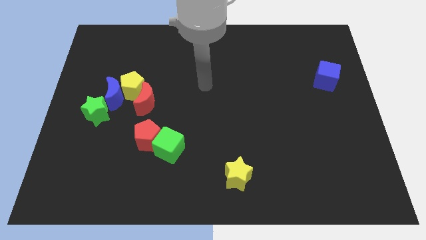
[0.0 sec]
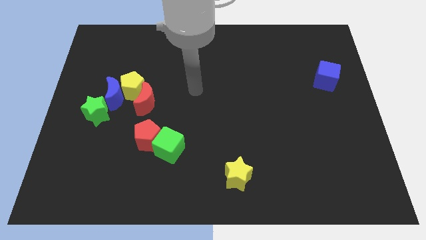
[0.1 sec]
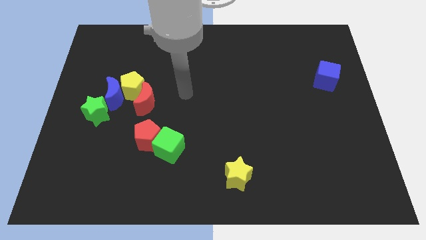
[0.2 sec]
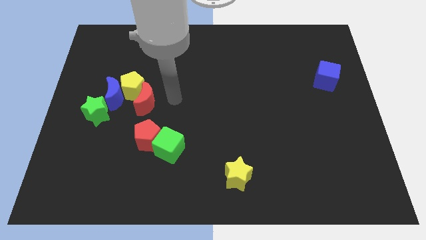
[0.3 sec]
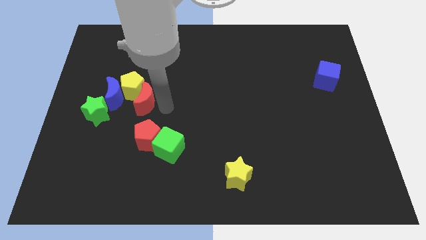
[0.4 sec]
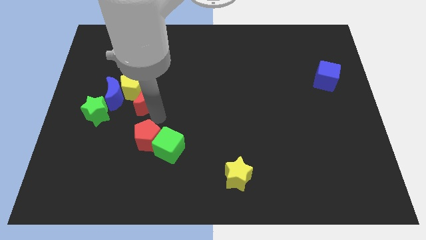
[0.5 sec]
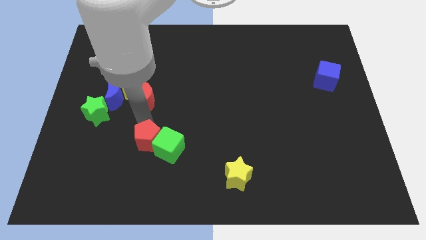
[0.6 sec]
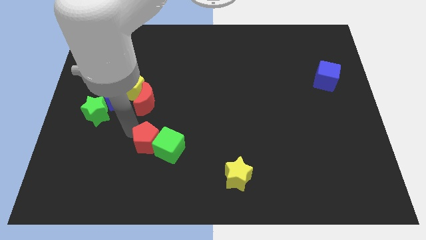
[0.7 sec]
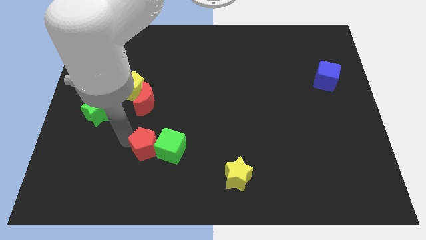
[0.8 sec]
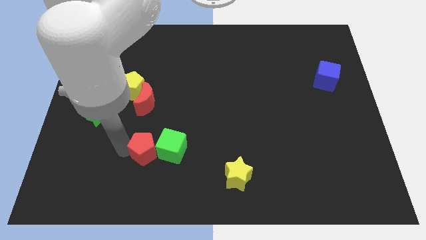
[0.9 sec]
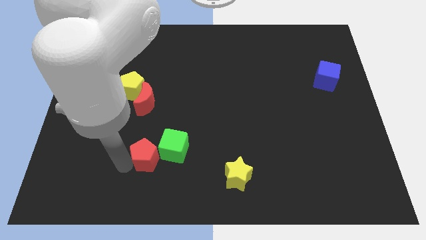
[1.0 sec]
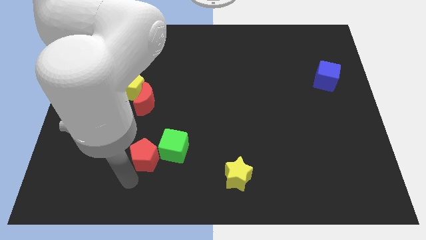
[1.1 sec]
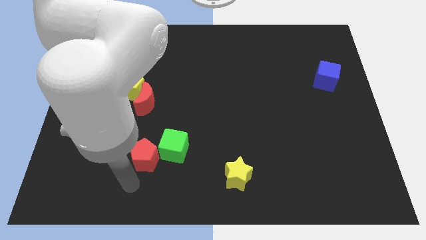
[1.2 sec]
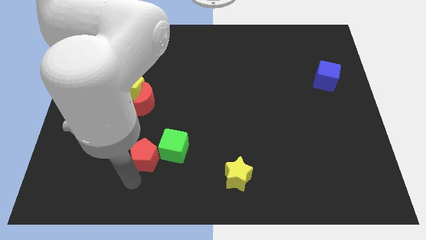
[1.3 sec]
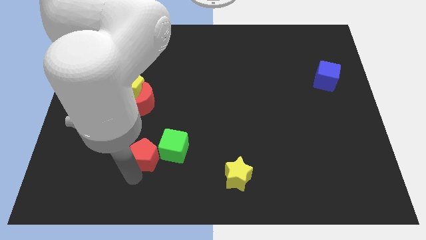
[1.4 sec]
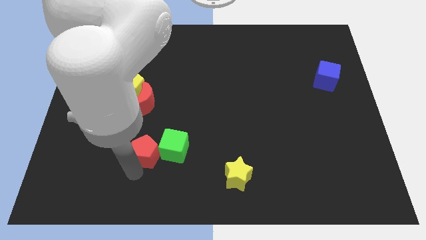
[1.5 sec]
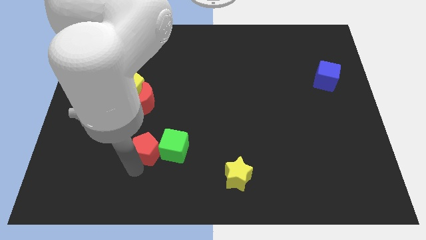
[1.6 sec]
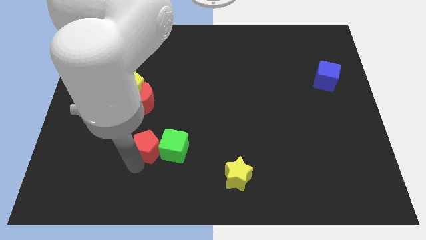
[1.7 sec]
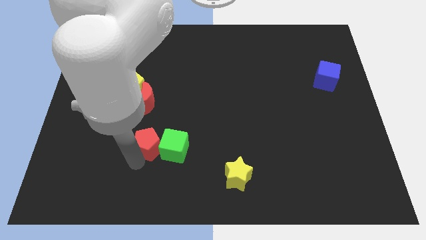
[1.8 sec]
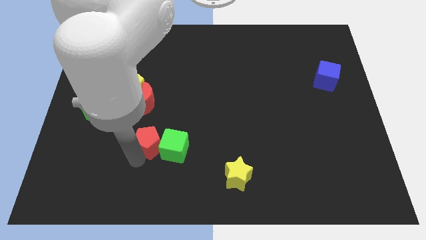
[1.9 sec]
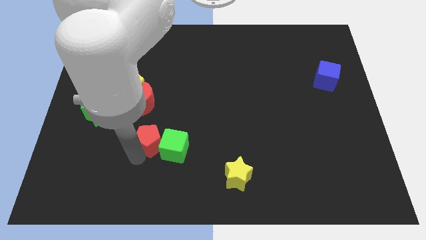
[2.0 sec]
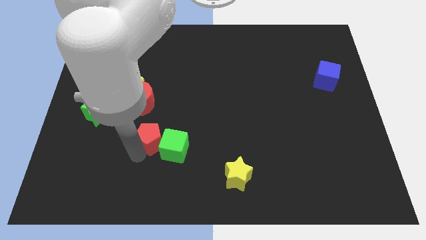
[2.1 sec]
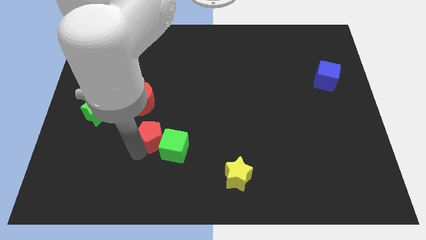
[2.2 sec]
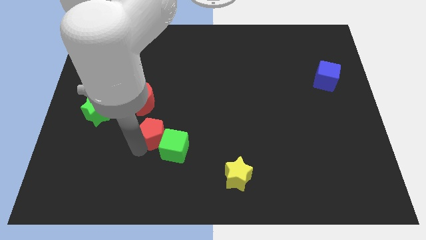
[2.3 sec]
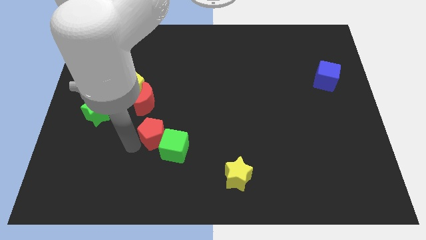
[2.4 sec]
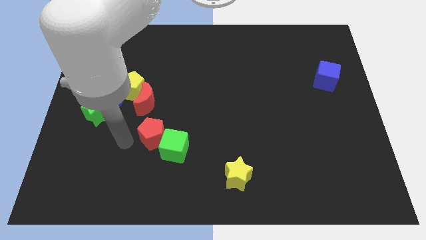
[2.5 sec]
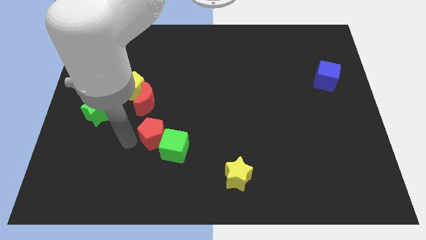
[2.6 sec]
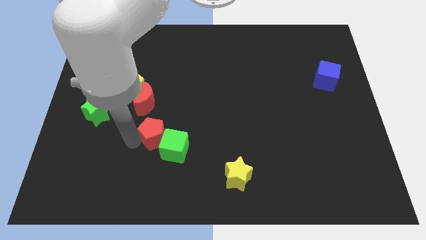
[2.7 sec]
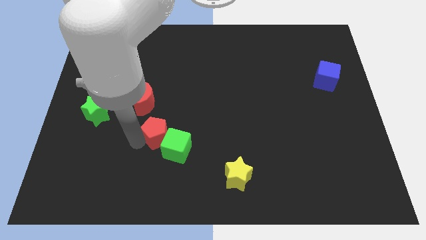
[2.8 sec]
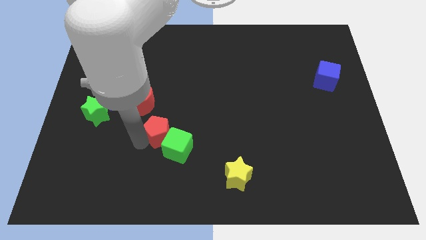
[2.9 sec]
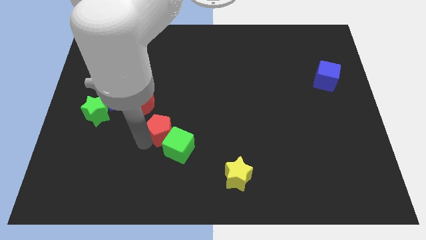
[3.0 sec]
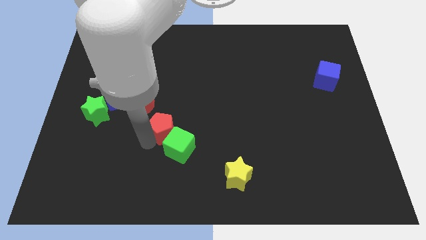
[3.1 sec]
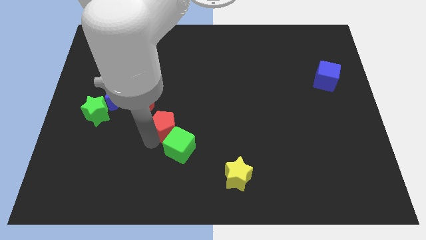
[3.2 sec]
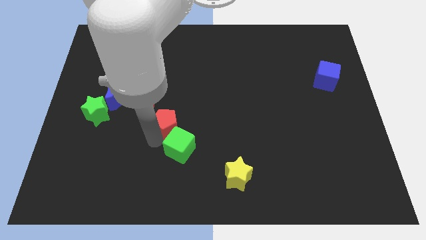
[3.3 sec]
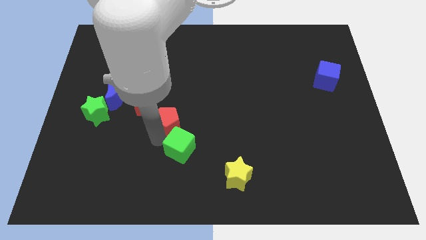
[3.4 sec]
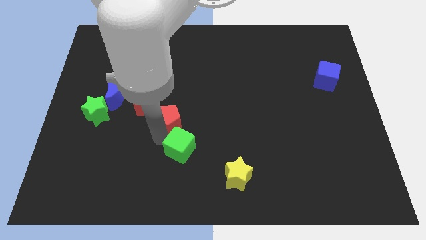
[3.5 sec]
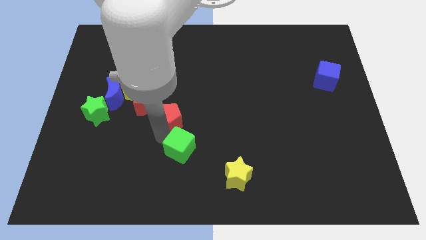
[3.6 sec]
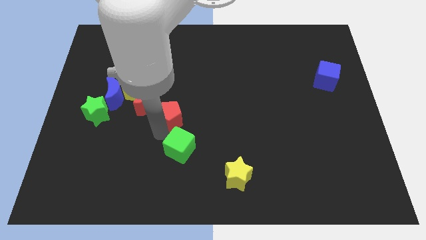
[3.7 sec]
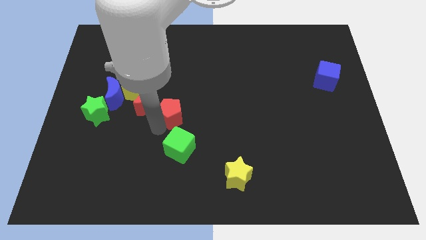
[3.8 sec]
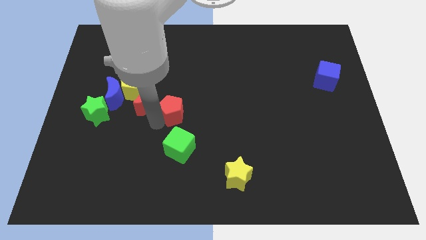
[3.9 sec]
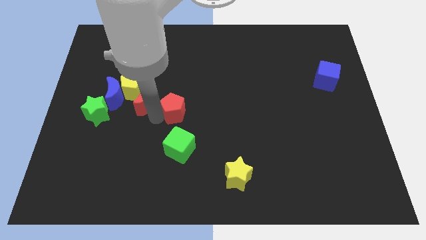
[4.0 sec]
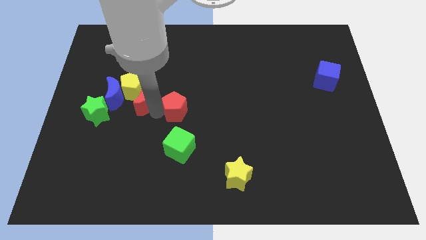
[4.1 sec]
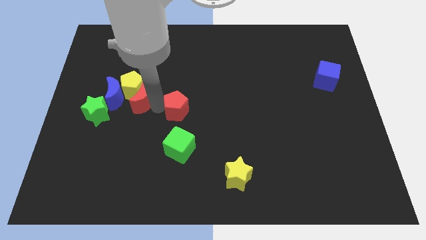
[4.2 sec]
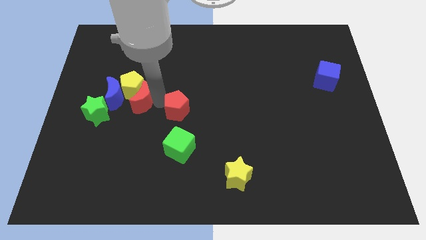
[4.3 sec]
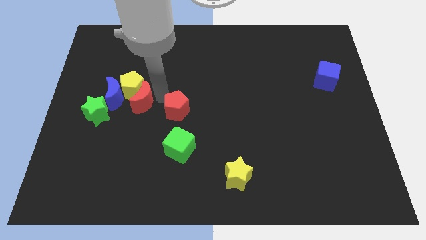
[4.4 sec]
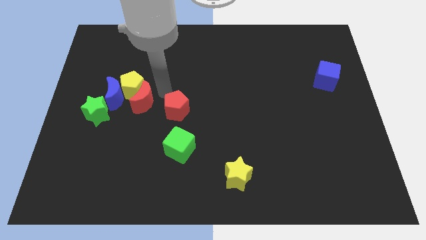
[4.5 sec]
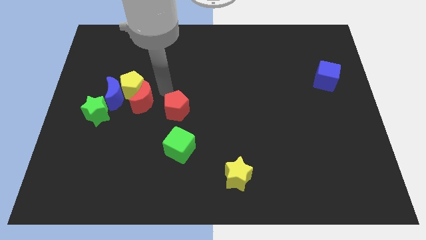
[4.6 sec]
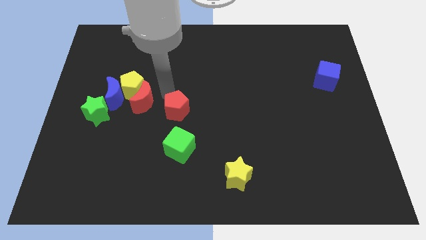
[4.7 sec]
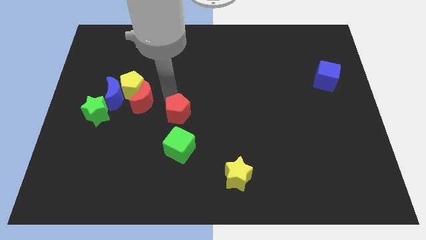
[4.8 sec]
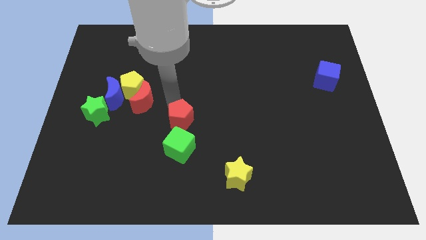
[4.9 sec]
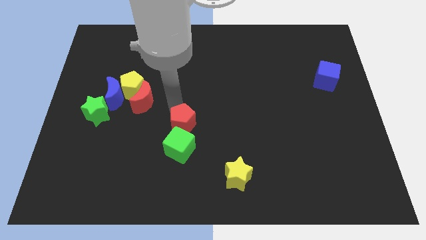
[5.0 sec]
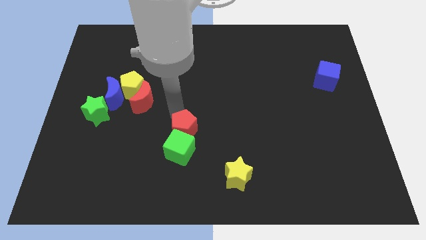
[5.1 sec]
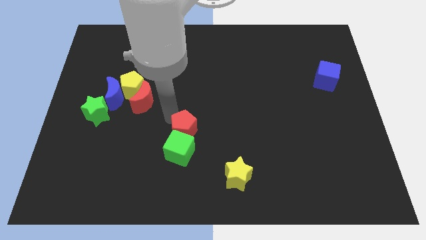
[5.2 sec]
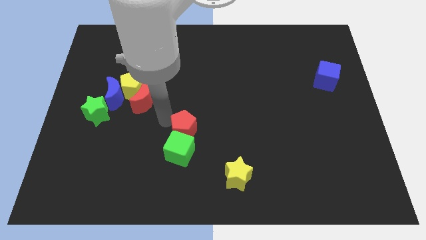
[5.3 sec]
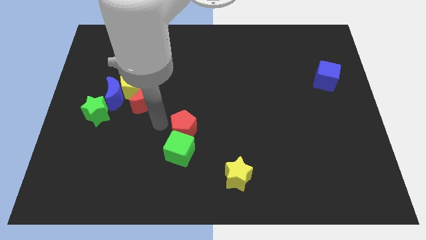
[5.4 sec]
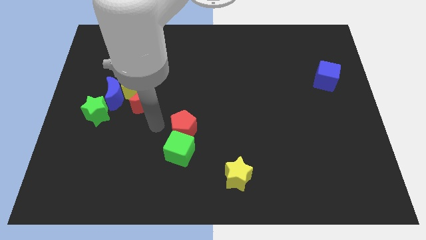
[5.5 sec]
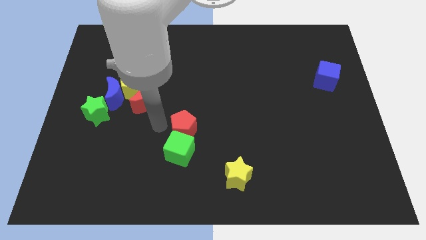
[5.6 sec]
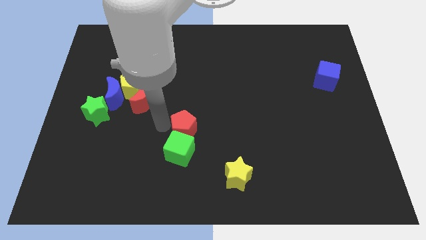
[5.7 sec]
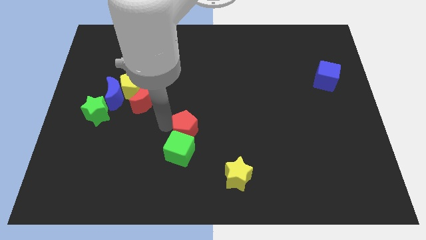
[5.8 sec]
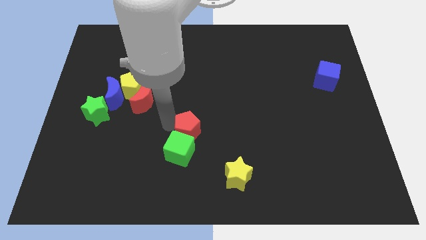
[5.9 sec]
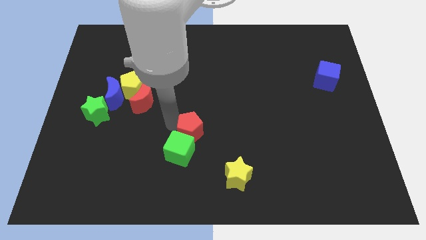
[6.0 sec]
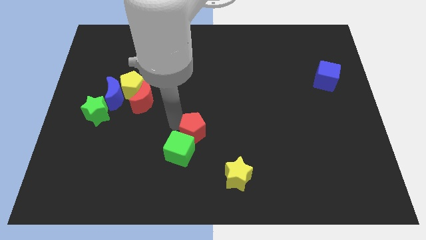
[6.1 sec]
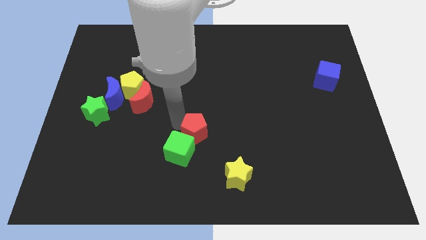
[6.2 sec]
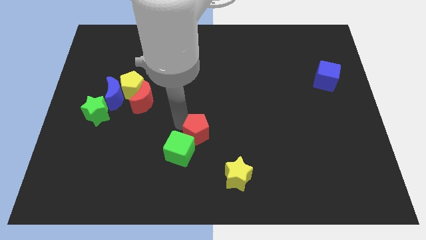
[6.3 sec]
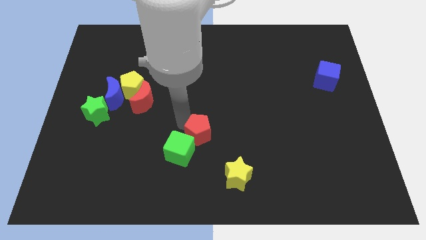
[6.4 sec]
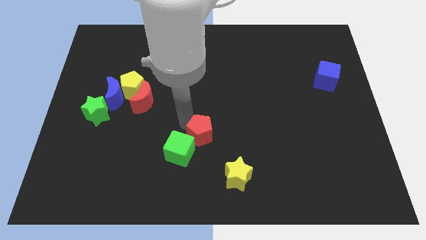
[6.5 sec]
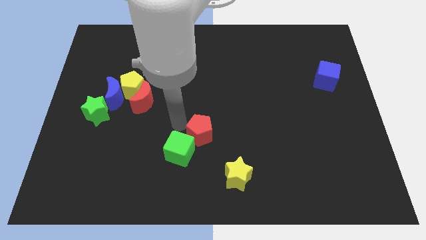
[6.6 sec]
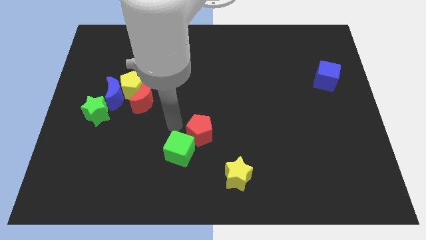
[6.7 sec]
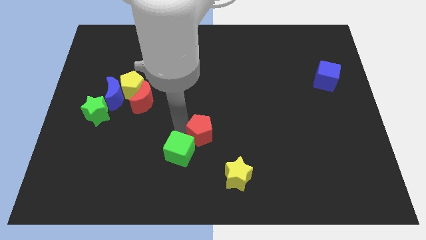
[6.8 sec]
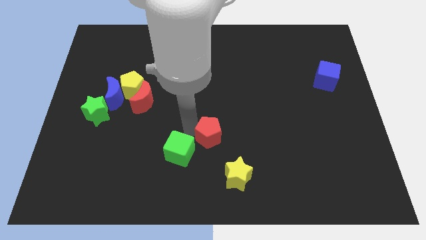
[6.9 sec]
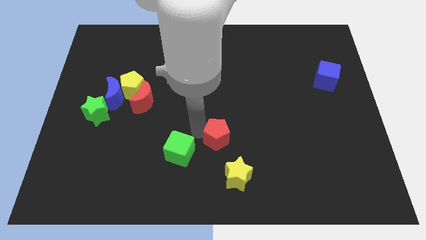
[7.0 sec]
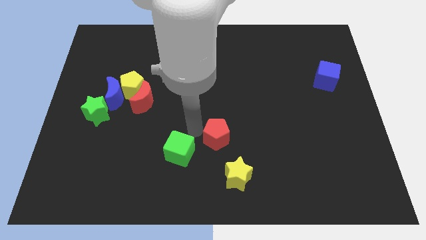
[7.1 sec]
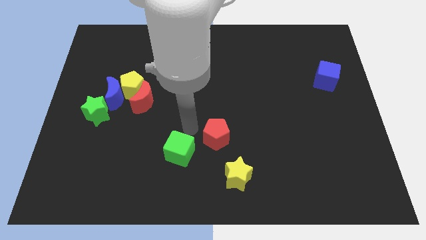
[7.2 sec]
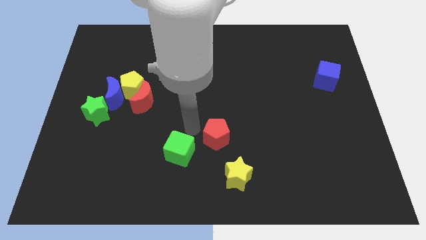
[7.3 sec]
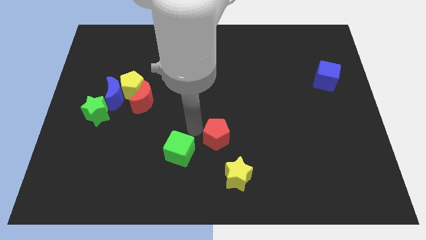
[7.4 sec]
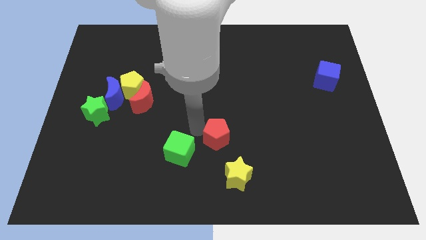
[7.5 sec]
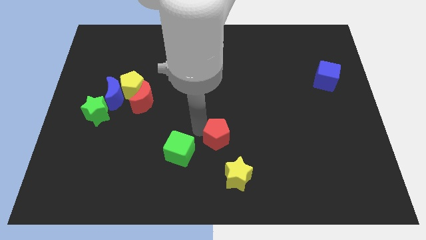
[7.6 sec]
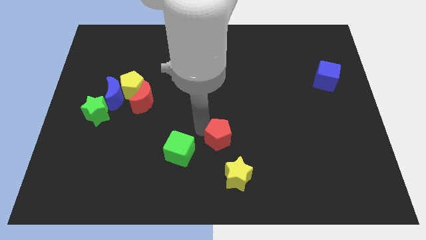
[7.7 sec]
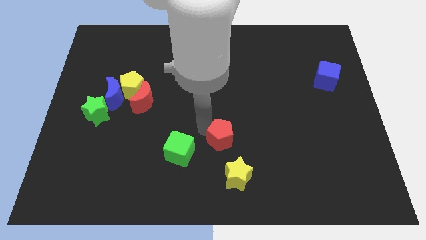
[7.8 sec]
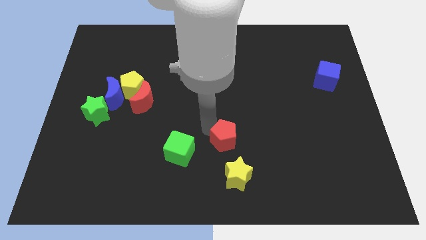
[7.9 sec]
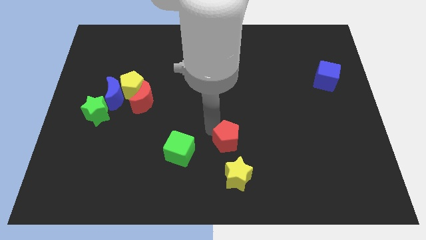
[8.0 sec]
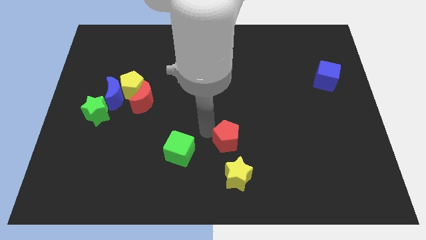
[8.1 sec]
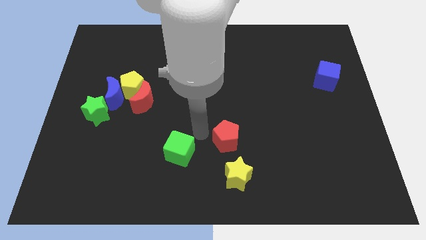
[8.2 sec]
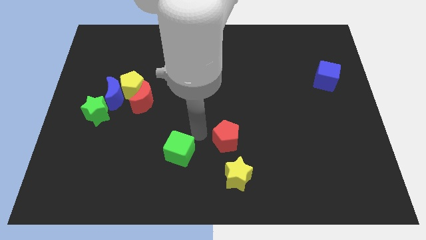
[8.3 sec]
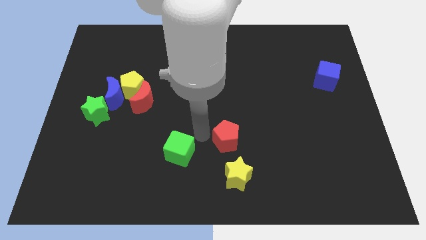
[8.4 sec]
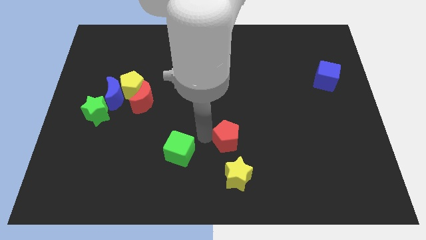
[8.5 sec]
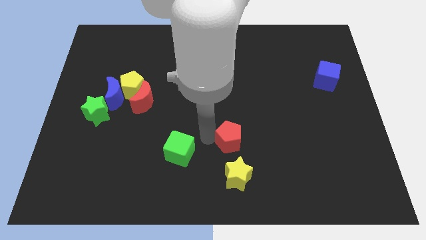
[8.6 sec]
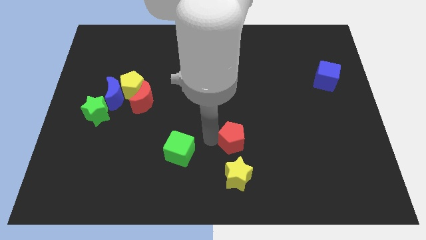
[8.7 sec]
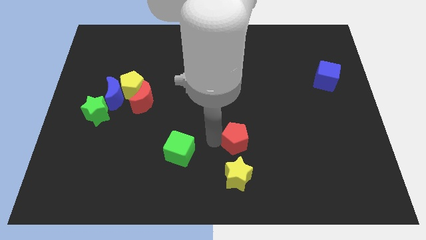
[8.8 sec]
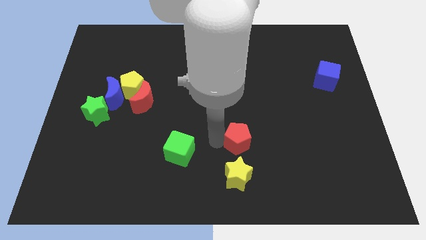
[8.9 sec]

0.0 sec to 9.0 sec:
slide the red pentagon right
